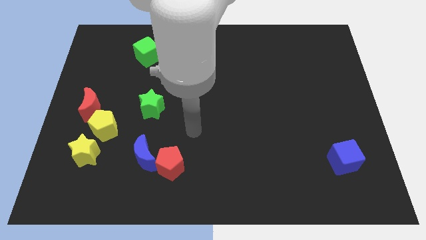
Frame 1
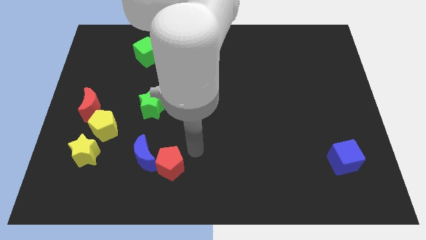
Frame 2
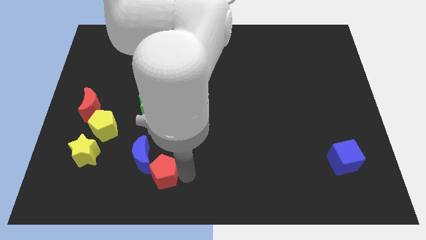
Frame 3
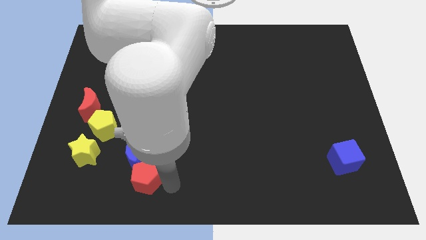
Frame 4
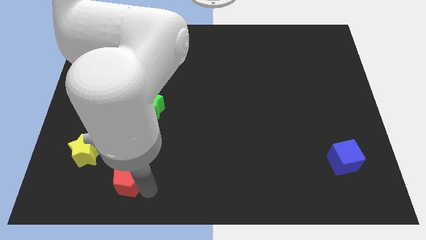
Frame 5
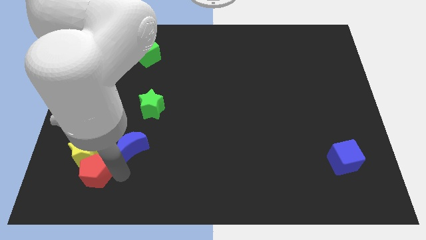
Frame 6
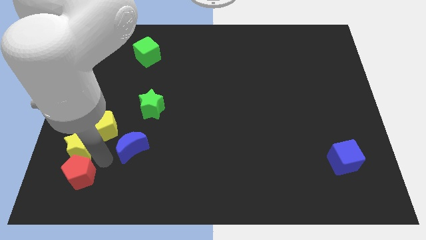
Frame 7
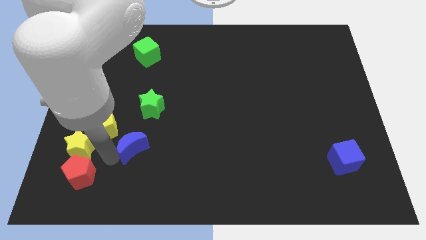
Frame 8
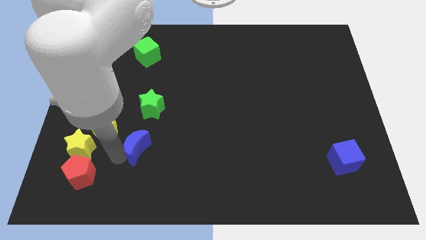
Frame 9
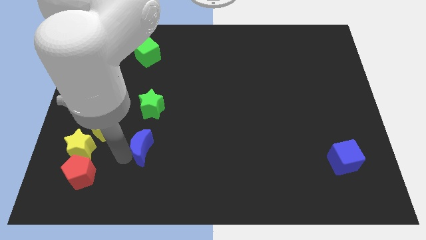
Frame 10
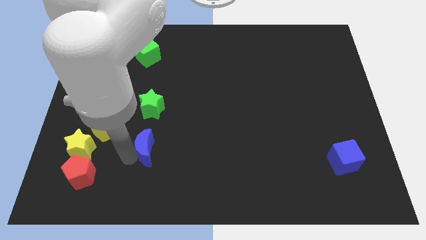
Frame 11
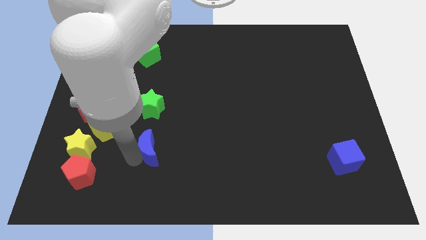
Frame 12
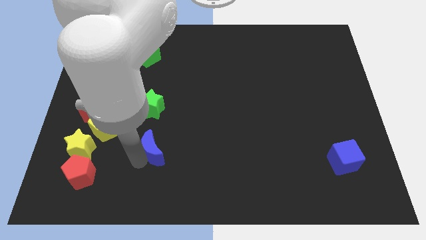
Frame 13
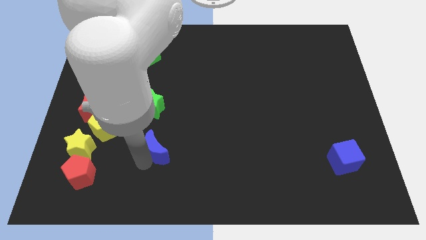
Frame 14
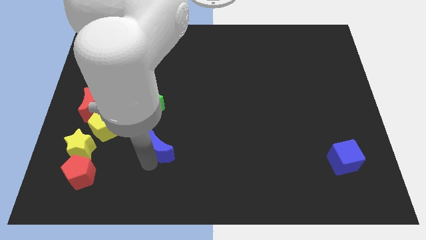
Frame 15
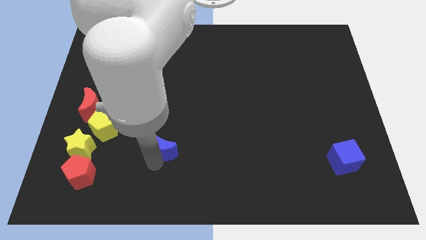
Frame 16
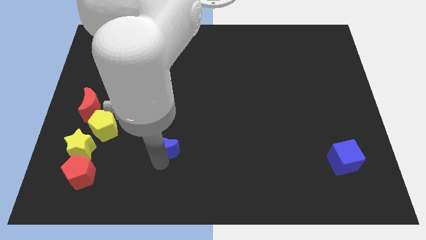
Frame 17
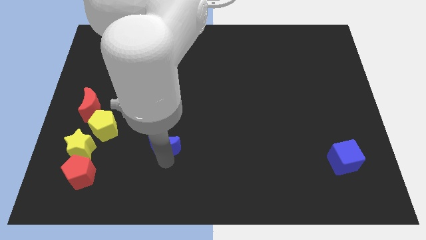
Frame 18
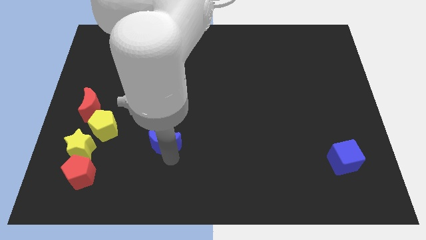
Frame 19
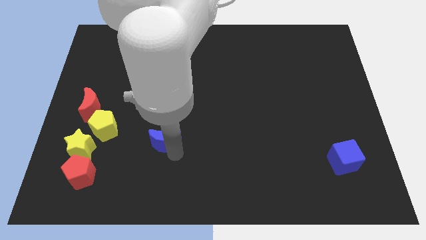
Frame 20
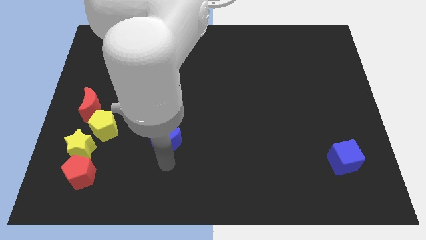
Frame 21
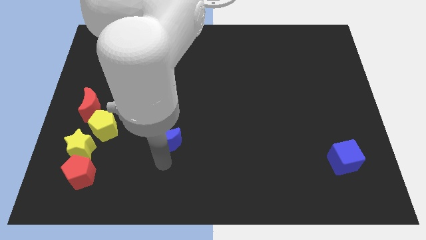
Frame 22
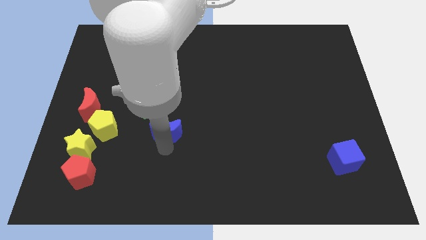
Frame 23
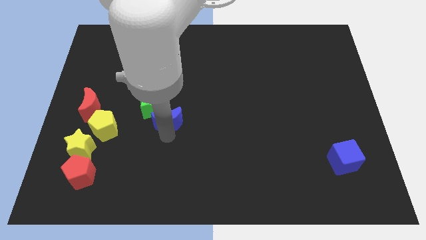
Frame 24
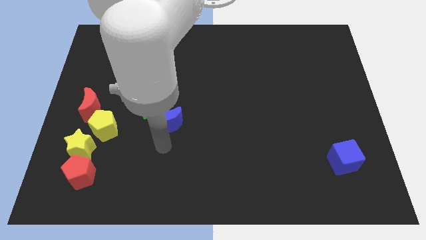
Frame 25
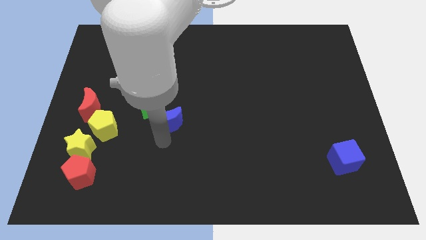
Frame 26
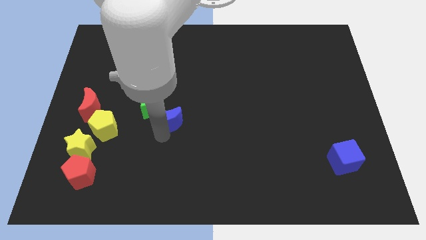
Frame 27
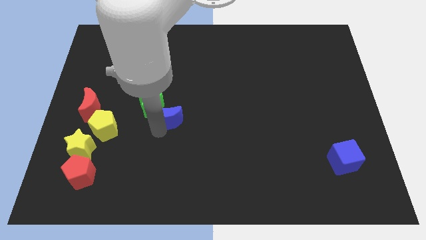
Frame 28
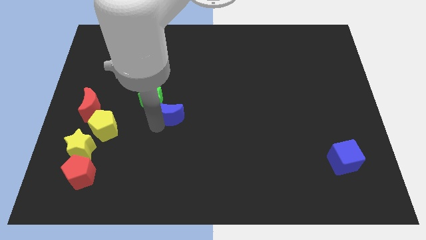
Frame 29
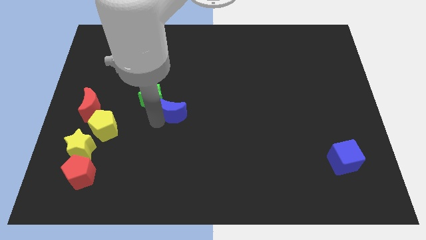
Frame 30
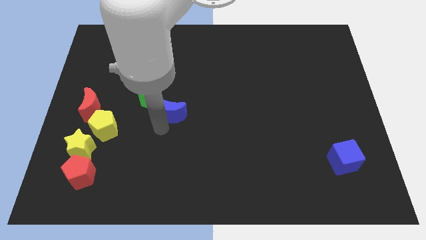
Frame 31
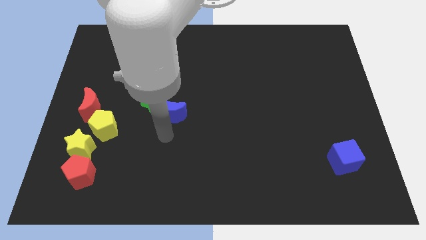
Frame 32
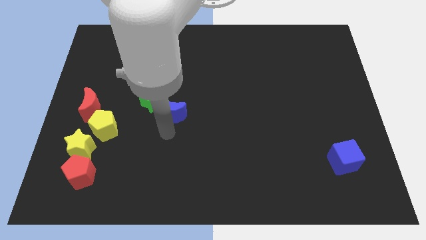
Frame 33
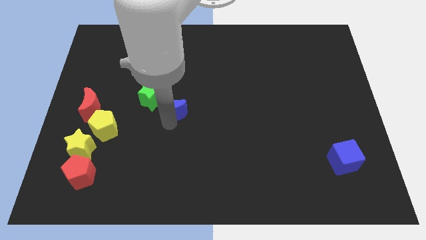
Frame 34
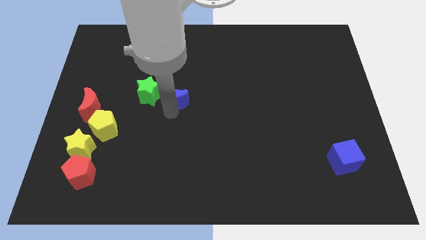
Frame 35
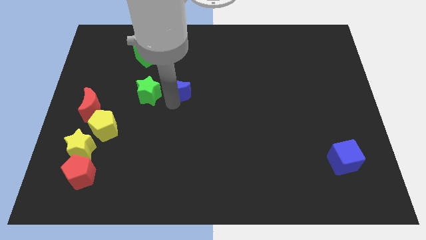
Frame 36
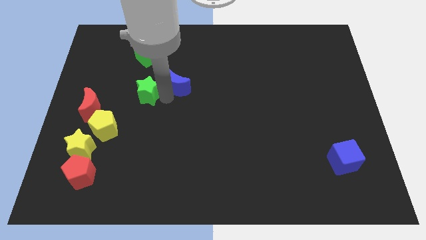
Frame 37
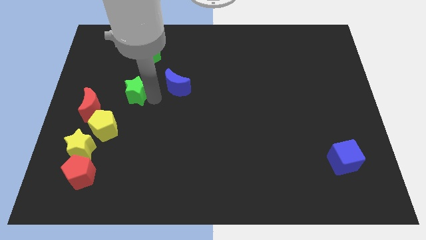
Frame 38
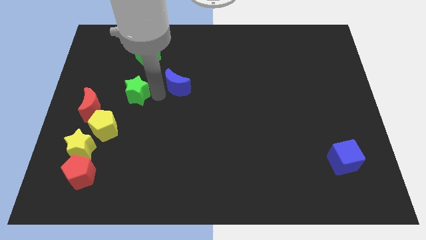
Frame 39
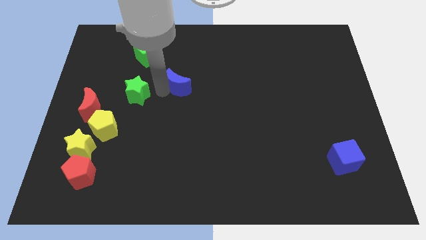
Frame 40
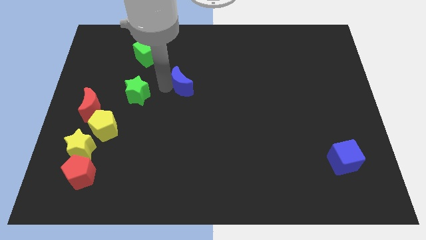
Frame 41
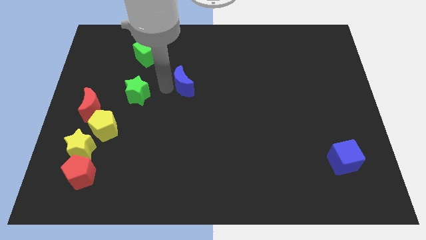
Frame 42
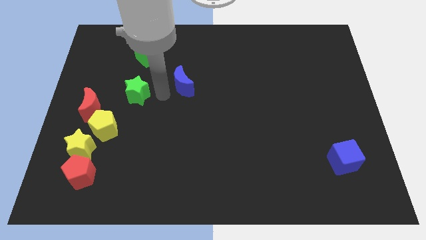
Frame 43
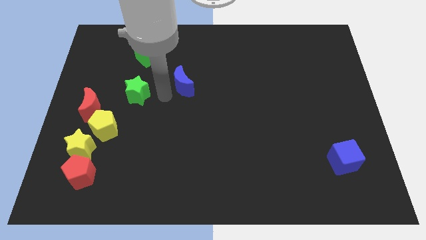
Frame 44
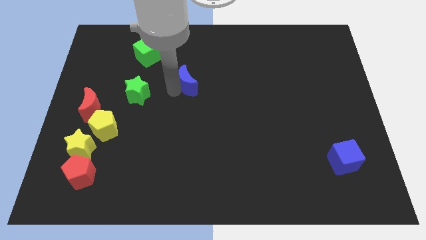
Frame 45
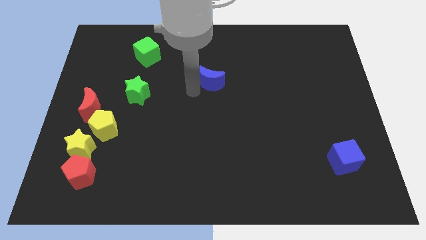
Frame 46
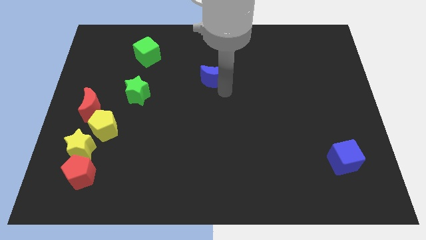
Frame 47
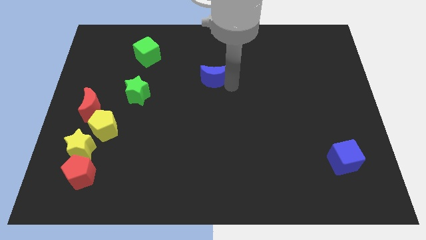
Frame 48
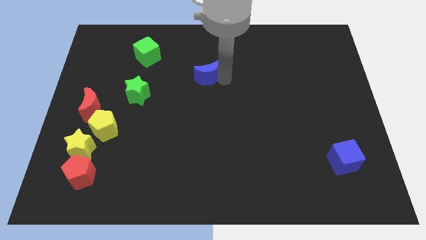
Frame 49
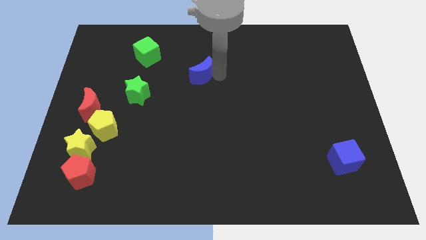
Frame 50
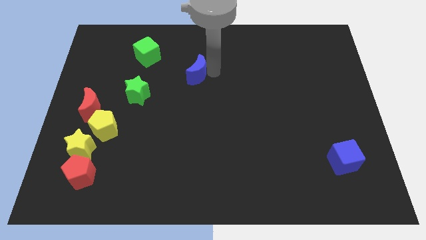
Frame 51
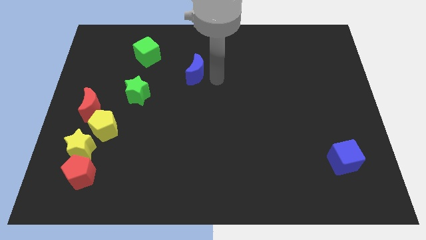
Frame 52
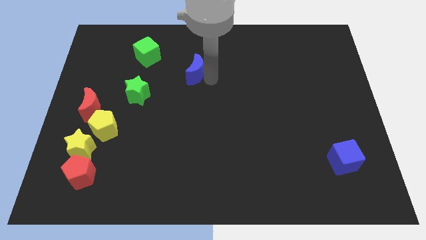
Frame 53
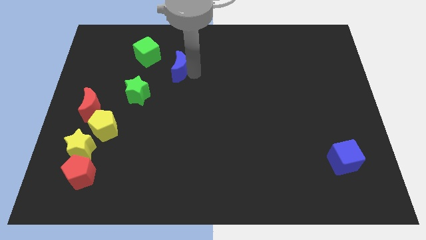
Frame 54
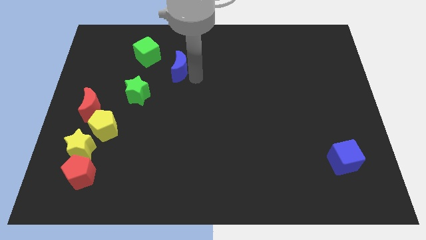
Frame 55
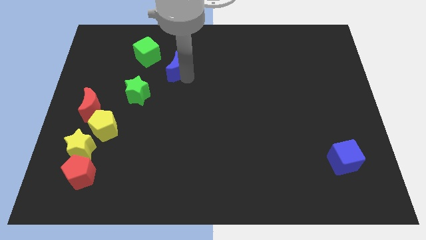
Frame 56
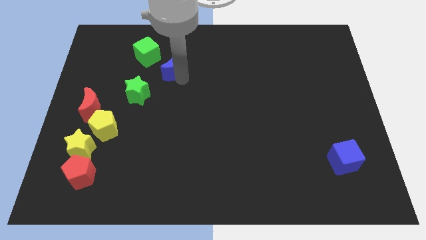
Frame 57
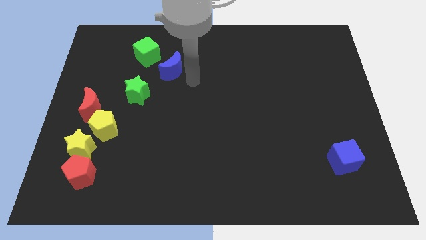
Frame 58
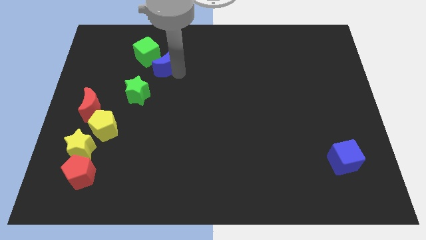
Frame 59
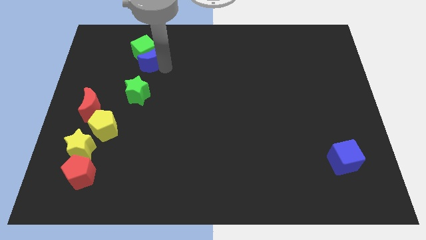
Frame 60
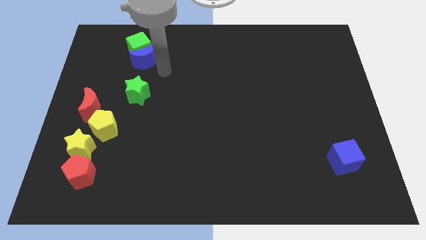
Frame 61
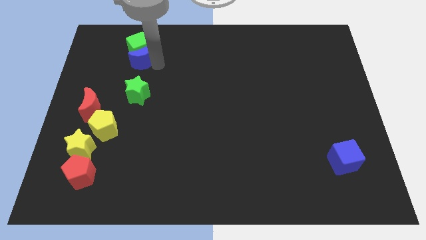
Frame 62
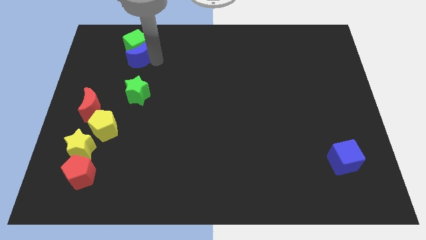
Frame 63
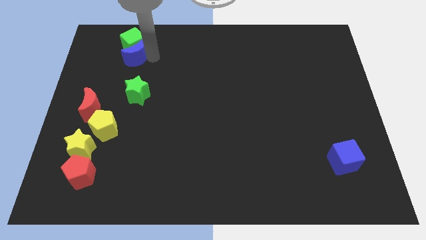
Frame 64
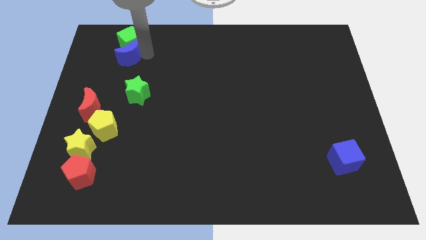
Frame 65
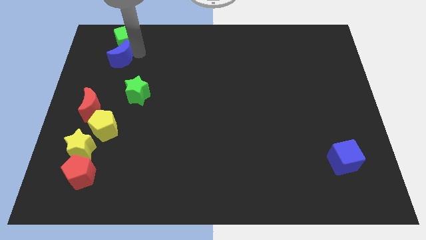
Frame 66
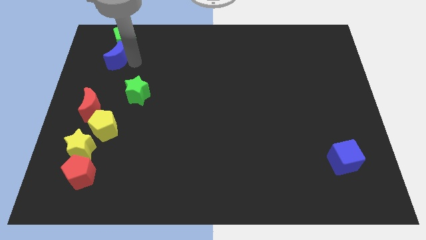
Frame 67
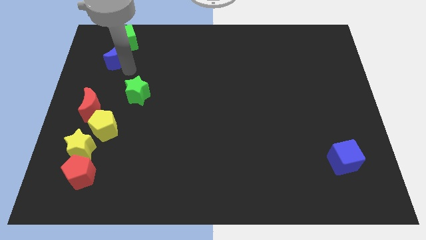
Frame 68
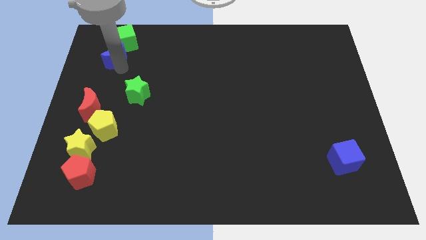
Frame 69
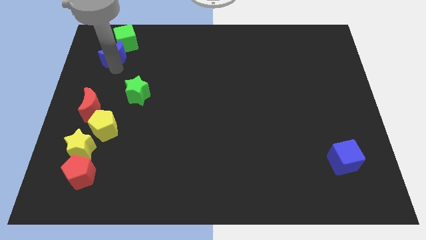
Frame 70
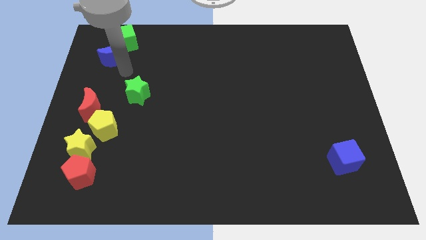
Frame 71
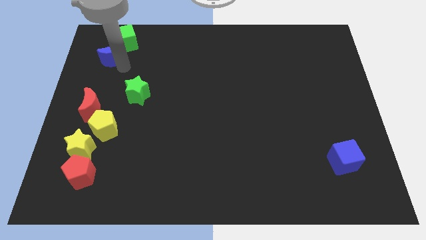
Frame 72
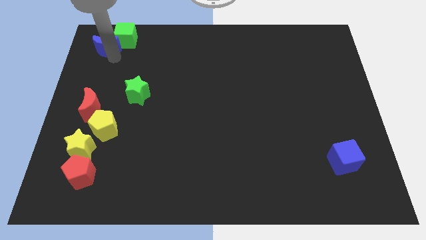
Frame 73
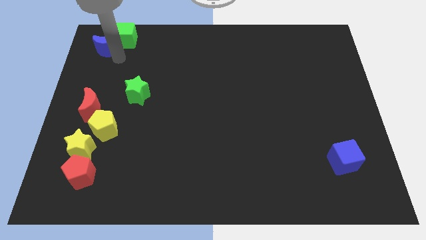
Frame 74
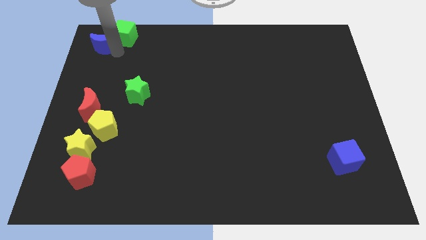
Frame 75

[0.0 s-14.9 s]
push the blue moon to the upper left corner
